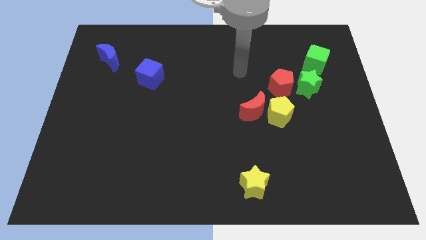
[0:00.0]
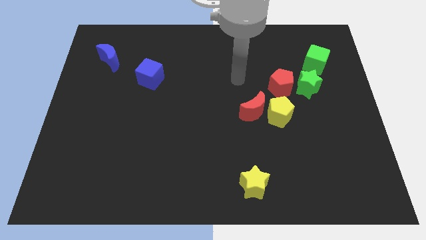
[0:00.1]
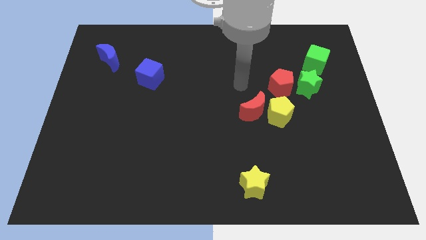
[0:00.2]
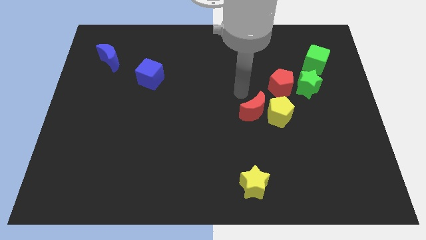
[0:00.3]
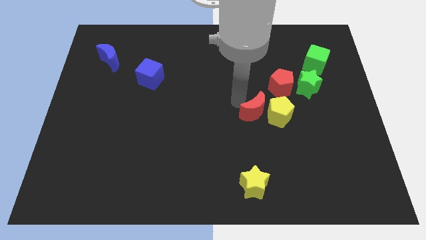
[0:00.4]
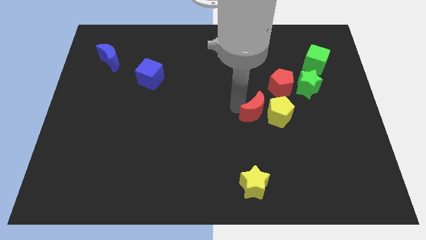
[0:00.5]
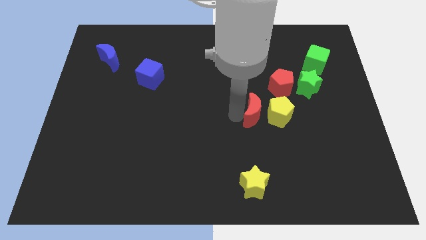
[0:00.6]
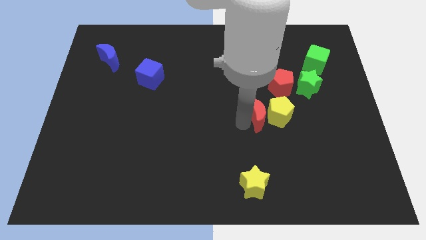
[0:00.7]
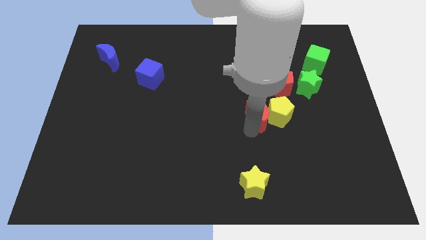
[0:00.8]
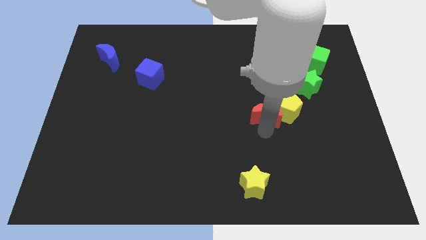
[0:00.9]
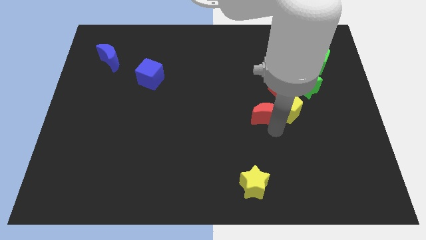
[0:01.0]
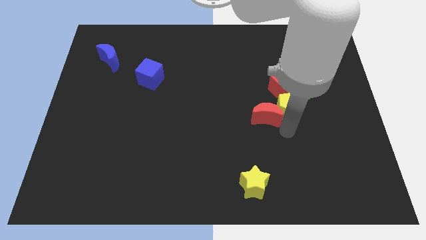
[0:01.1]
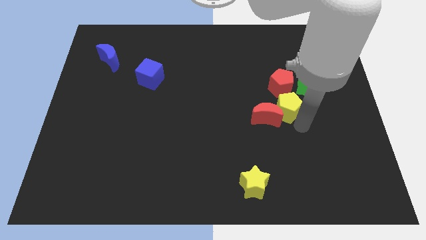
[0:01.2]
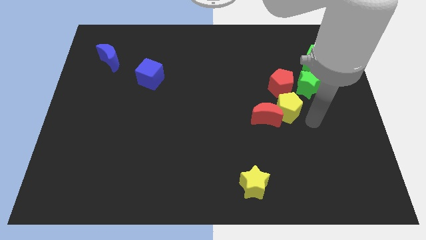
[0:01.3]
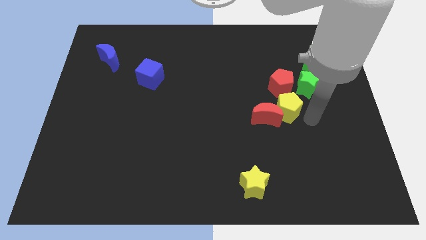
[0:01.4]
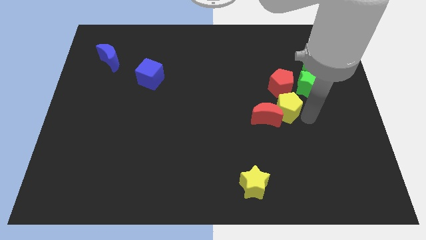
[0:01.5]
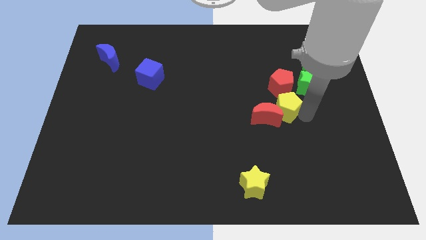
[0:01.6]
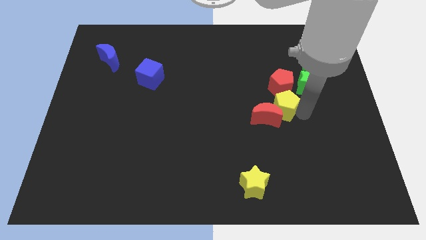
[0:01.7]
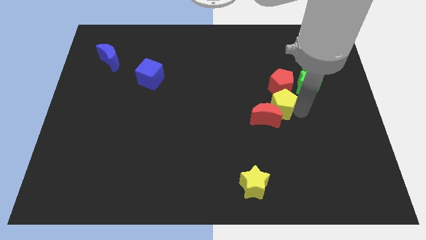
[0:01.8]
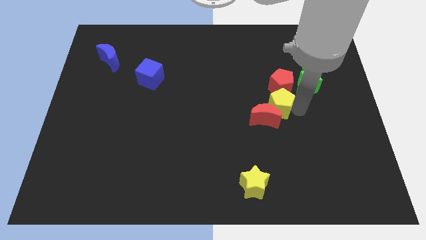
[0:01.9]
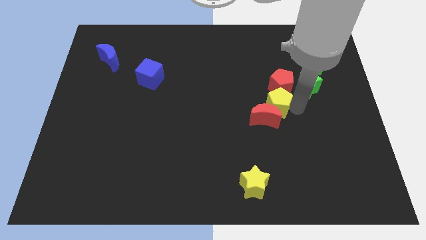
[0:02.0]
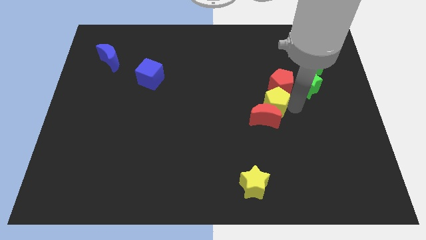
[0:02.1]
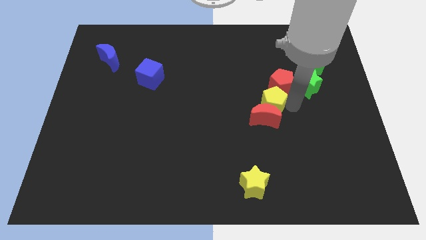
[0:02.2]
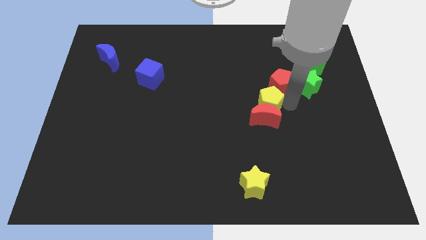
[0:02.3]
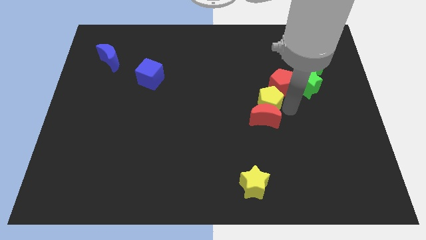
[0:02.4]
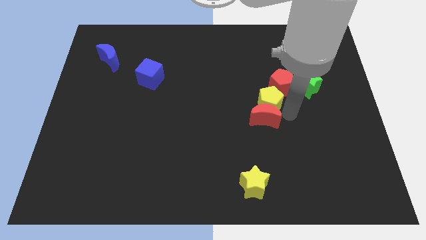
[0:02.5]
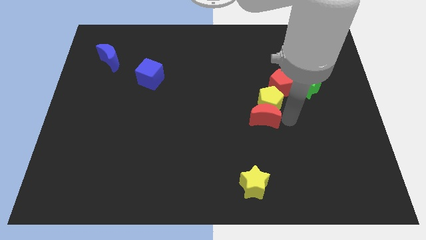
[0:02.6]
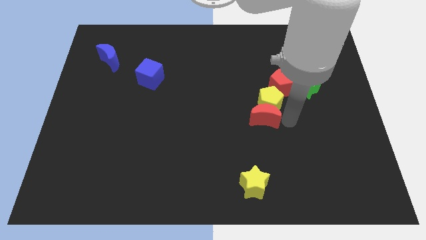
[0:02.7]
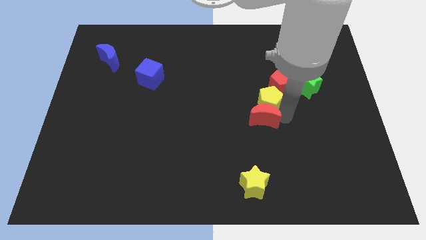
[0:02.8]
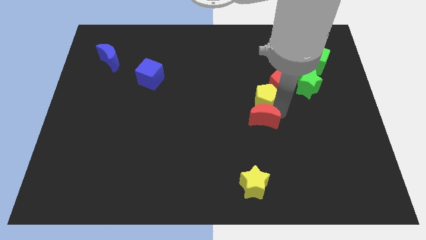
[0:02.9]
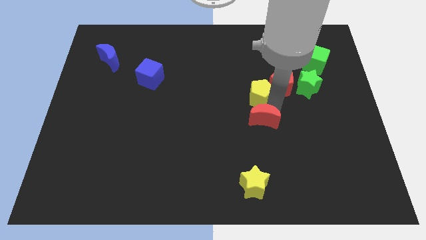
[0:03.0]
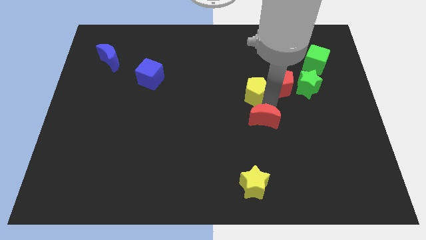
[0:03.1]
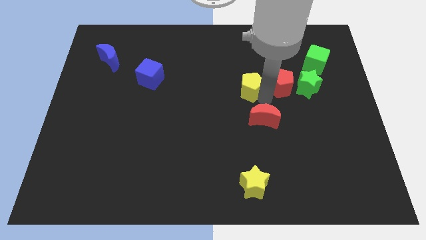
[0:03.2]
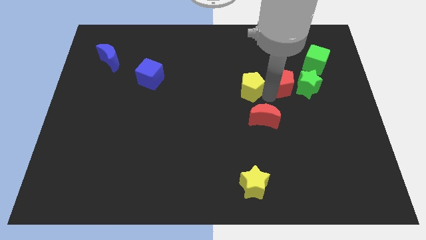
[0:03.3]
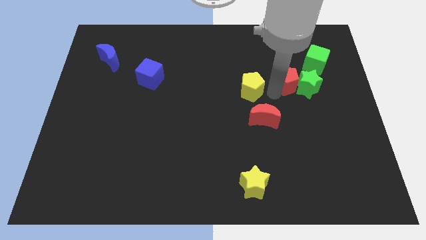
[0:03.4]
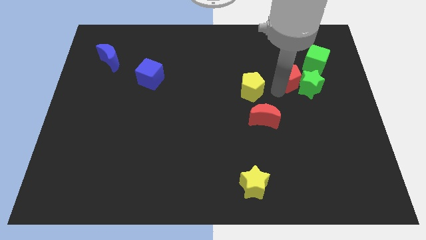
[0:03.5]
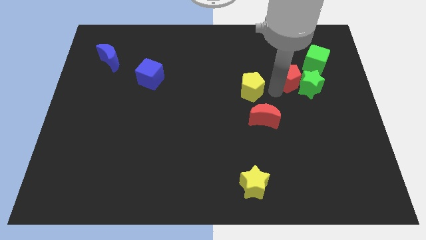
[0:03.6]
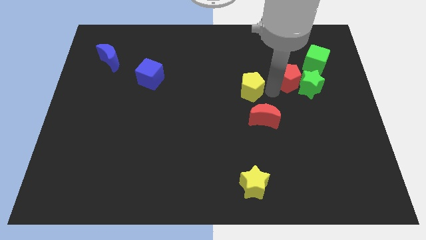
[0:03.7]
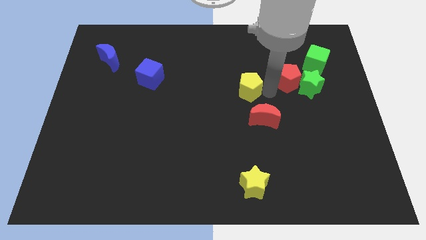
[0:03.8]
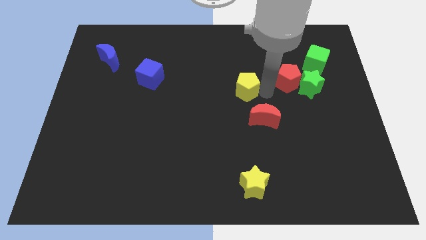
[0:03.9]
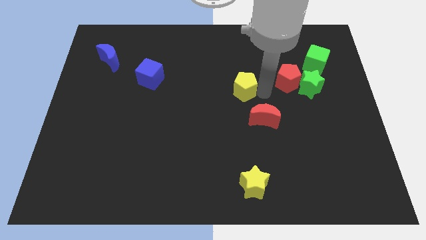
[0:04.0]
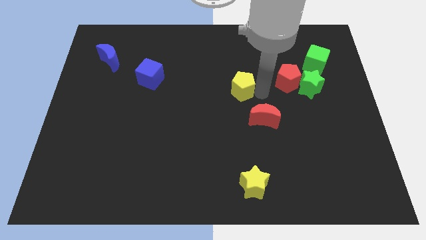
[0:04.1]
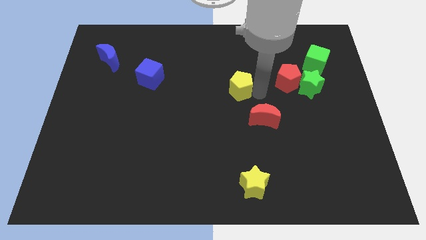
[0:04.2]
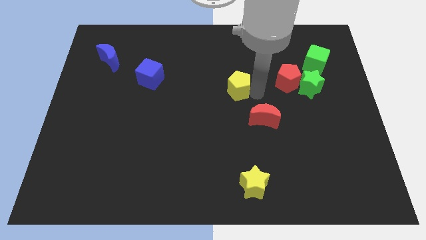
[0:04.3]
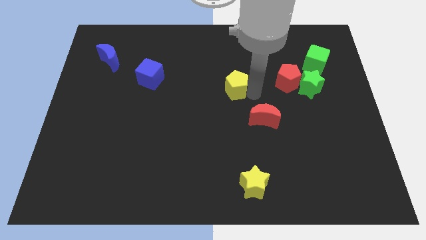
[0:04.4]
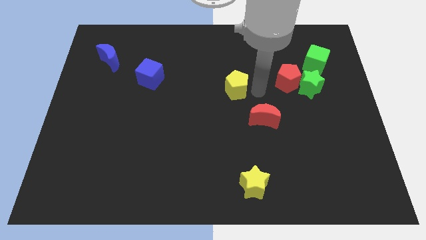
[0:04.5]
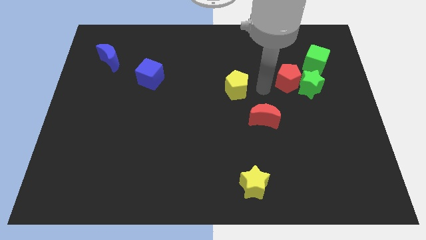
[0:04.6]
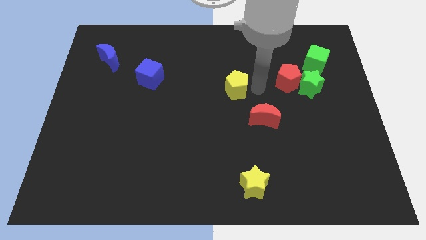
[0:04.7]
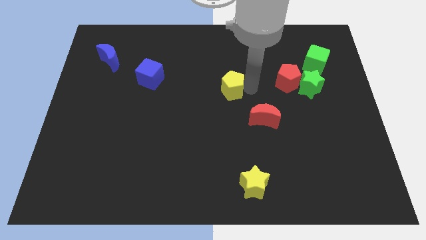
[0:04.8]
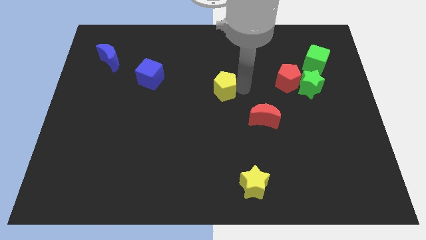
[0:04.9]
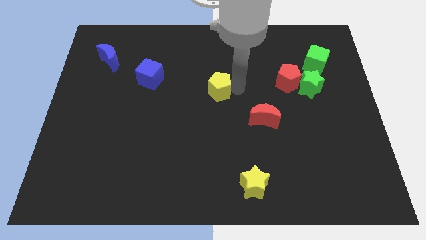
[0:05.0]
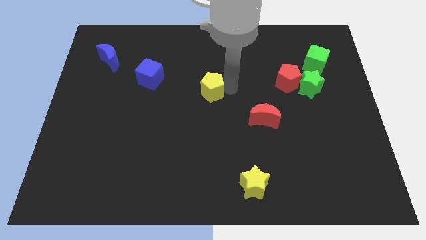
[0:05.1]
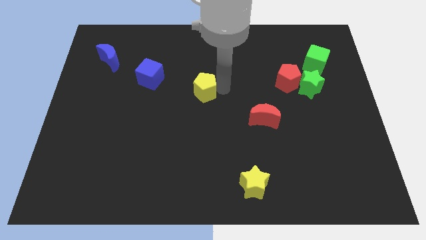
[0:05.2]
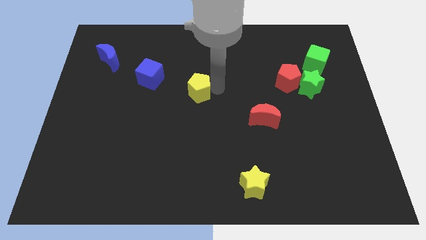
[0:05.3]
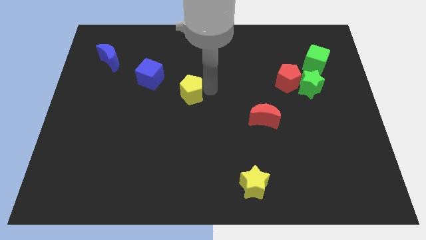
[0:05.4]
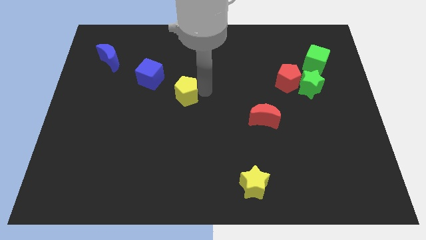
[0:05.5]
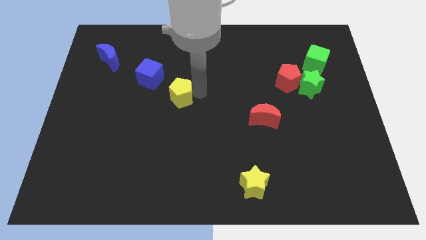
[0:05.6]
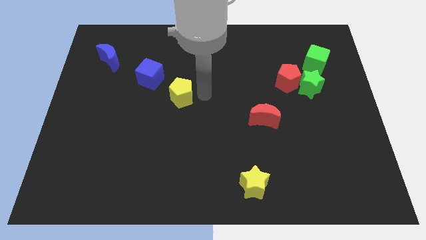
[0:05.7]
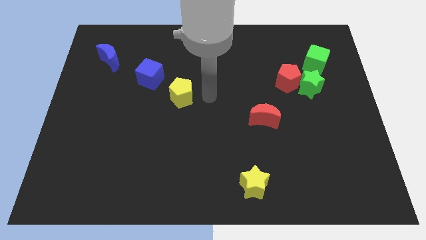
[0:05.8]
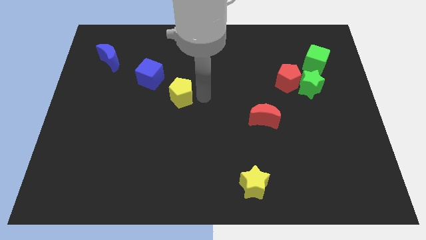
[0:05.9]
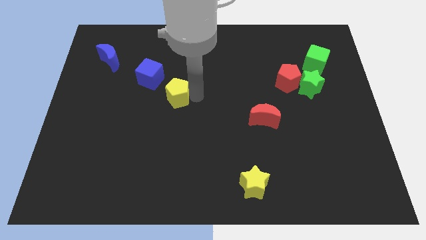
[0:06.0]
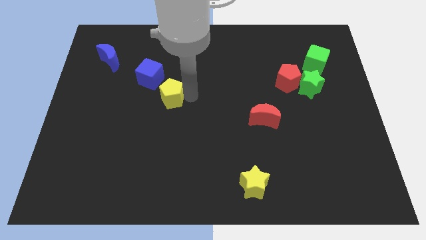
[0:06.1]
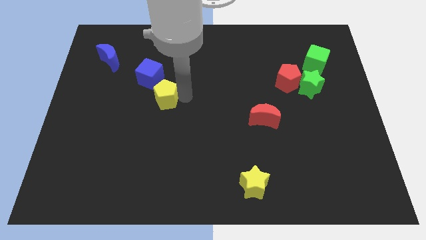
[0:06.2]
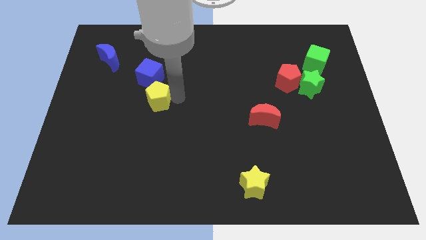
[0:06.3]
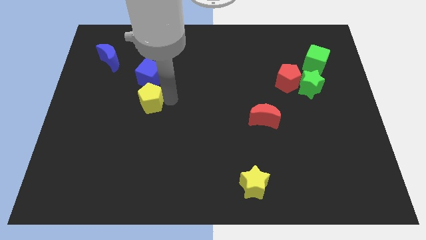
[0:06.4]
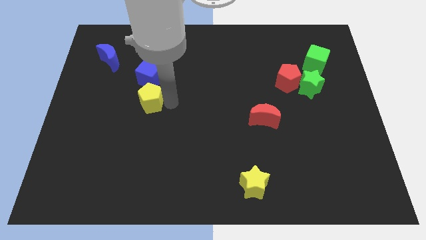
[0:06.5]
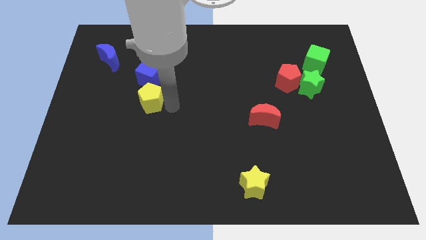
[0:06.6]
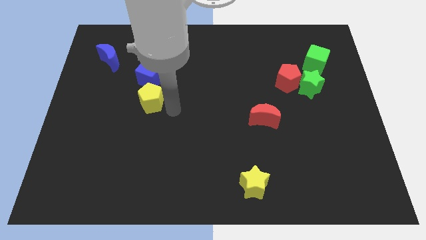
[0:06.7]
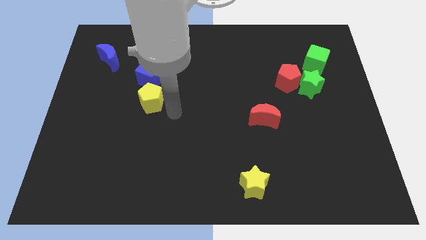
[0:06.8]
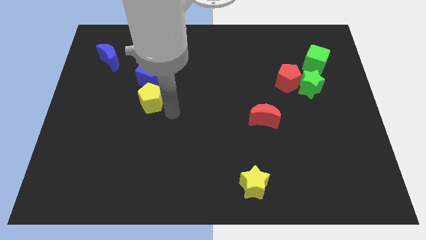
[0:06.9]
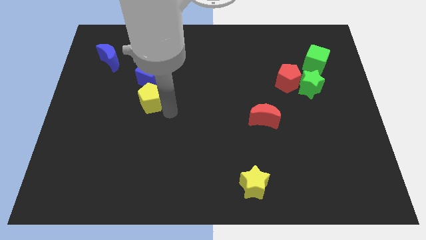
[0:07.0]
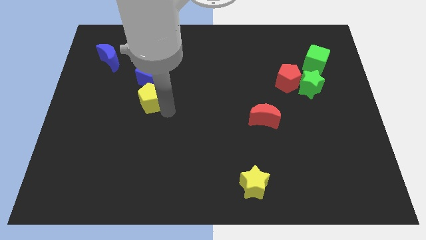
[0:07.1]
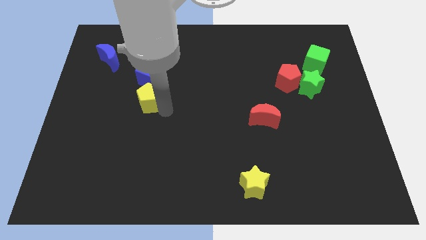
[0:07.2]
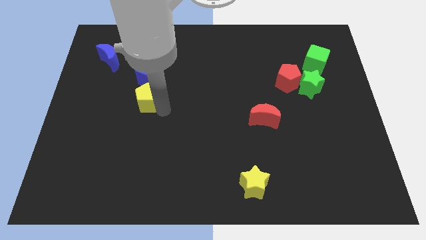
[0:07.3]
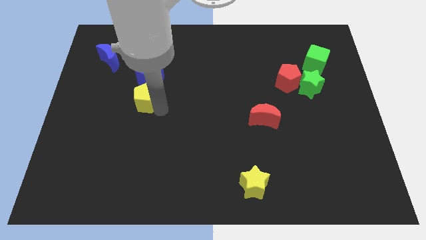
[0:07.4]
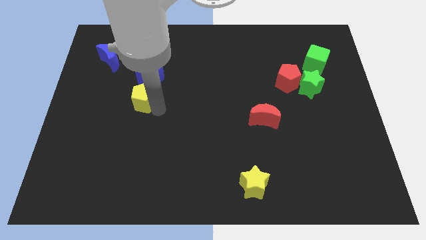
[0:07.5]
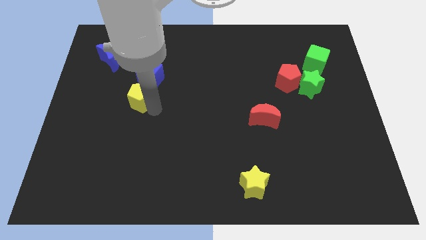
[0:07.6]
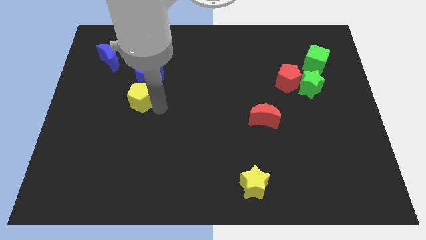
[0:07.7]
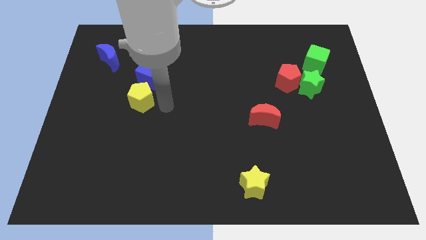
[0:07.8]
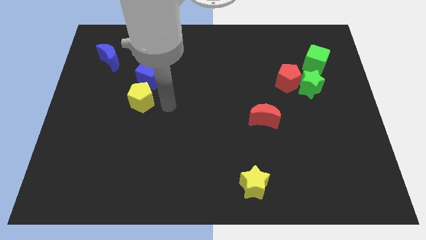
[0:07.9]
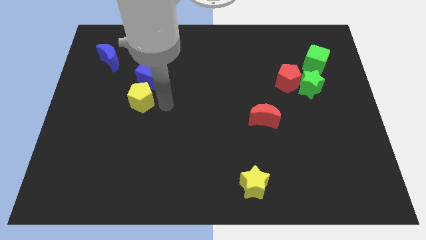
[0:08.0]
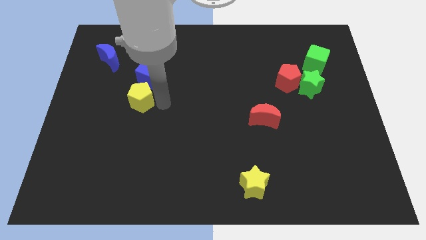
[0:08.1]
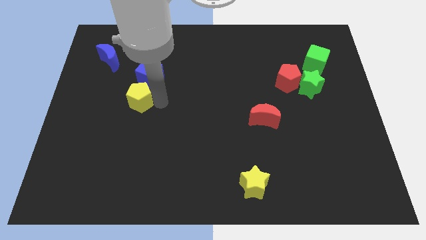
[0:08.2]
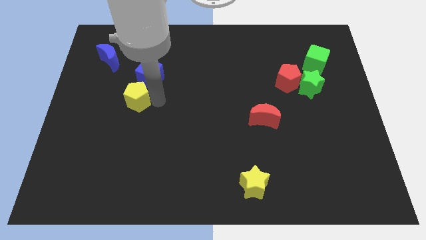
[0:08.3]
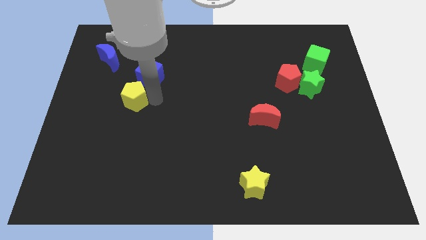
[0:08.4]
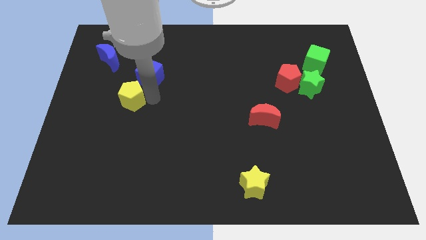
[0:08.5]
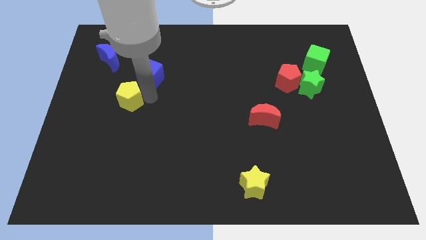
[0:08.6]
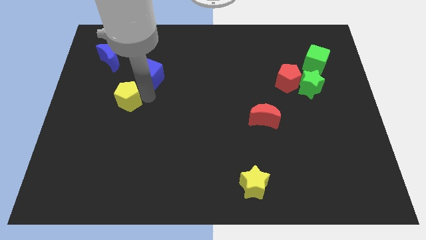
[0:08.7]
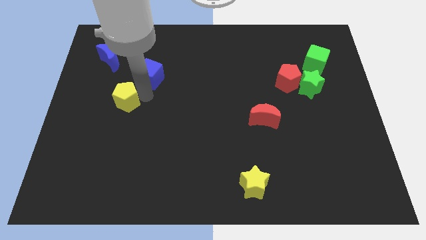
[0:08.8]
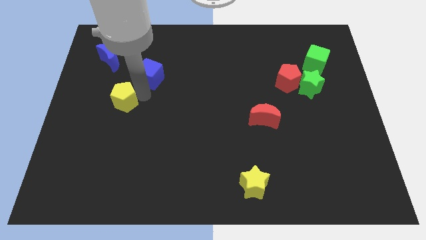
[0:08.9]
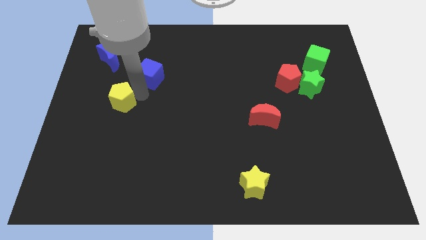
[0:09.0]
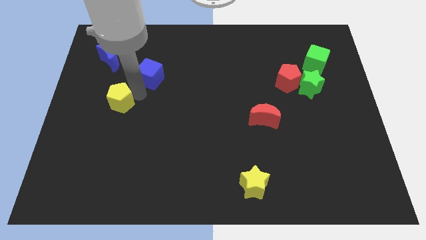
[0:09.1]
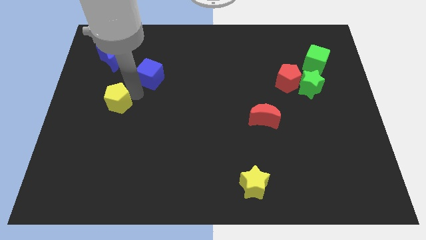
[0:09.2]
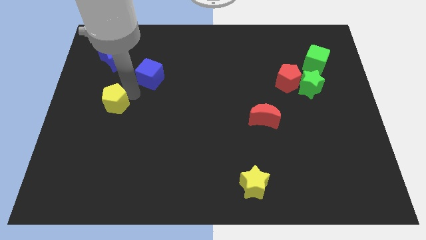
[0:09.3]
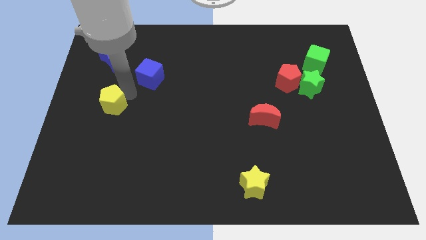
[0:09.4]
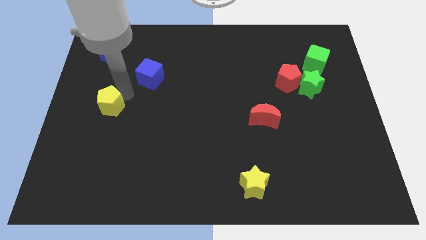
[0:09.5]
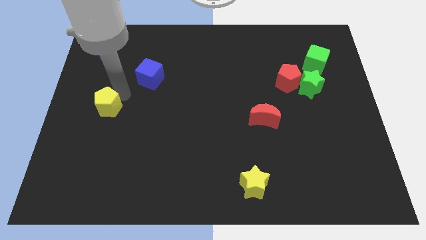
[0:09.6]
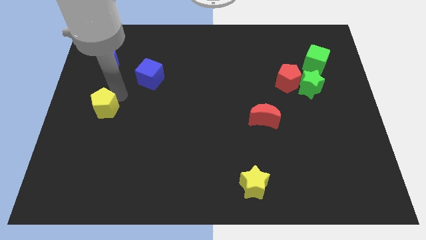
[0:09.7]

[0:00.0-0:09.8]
put the yellow pentagon to the center left
